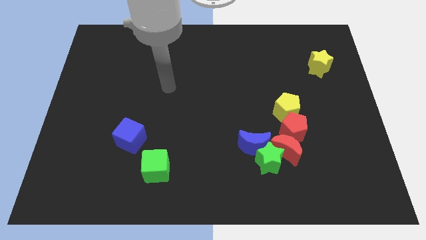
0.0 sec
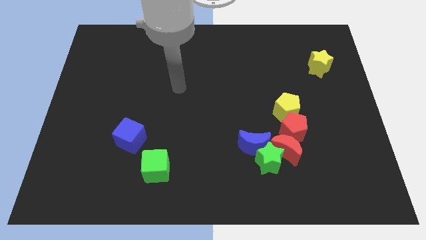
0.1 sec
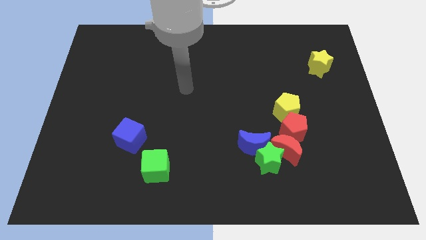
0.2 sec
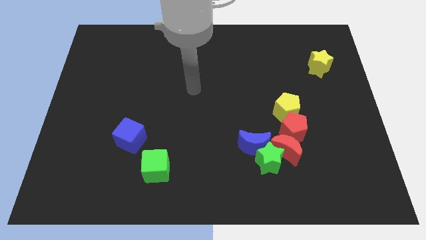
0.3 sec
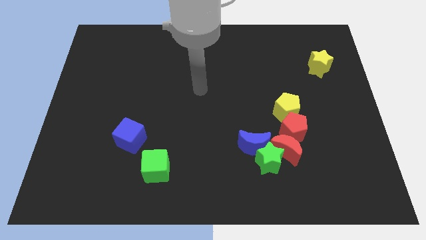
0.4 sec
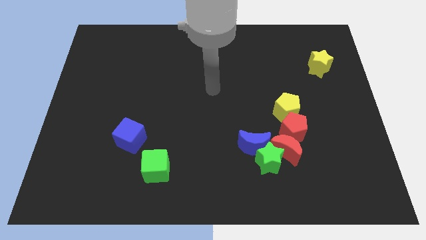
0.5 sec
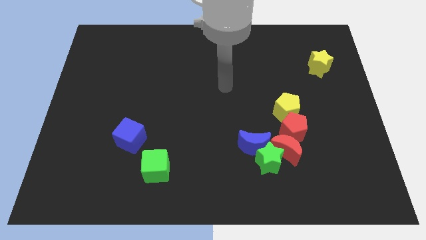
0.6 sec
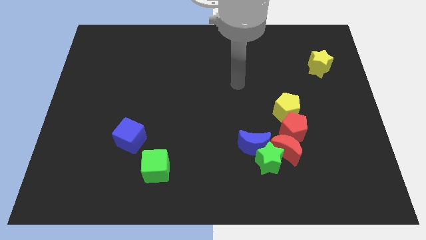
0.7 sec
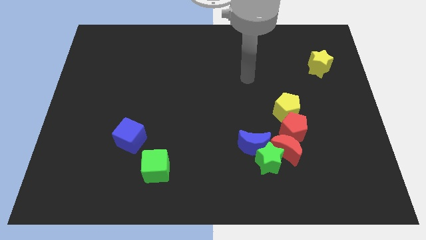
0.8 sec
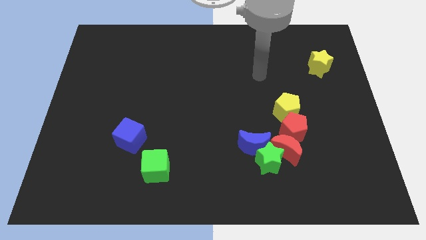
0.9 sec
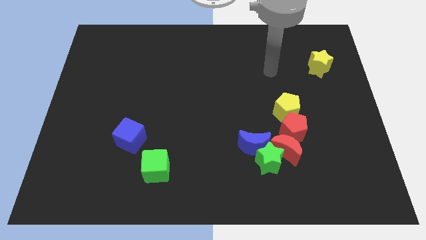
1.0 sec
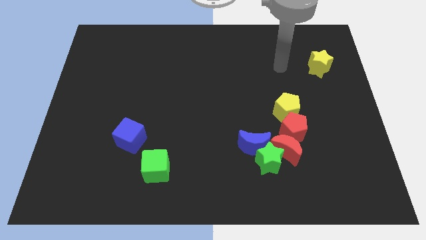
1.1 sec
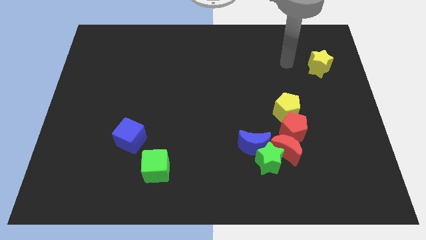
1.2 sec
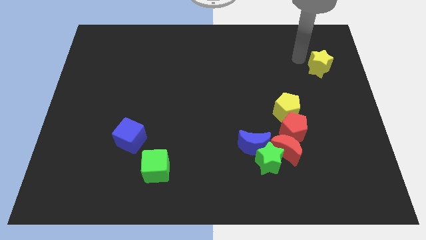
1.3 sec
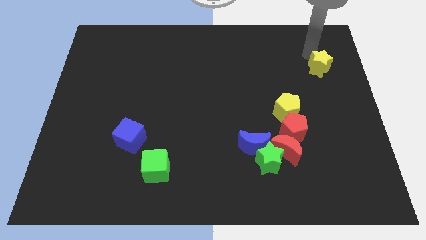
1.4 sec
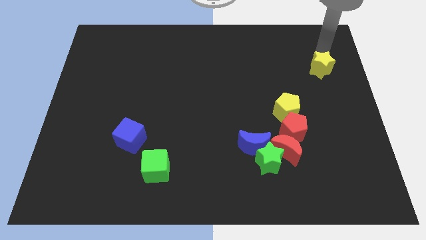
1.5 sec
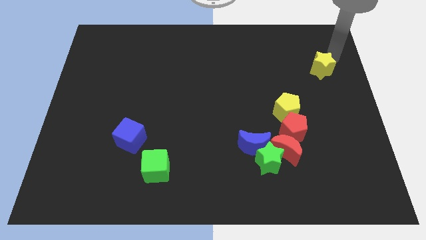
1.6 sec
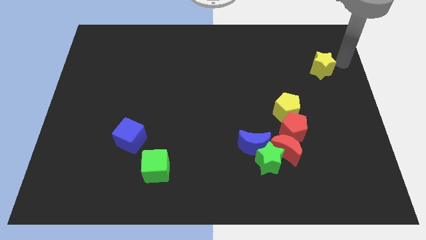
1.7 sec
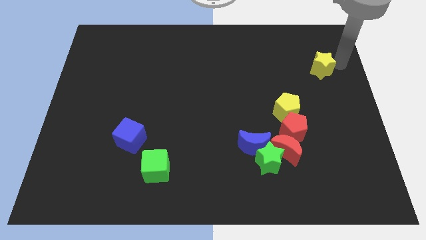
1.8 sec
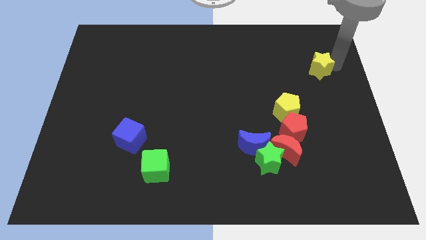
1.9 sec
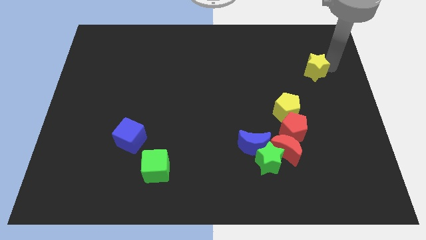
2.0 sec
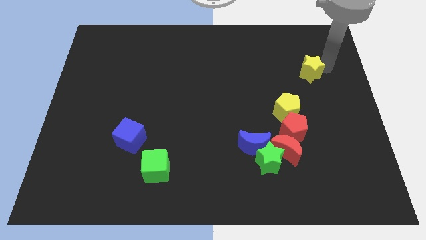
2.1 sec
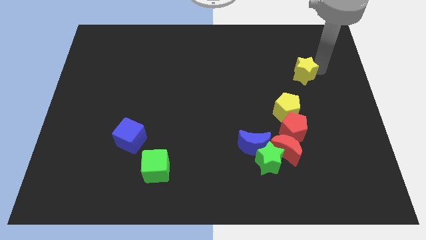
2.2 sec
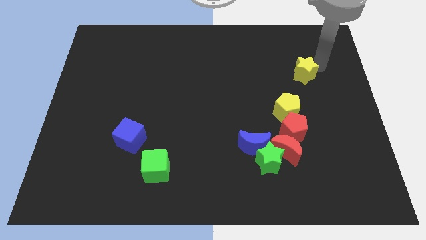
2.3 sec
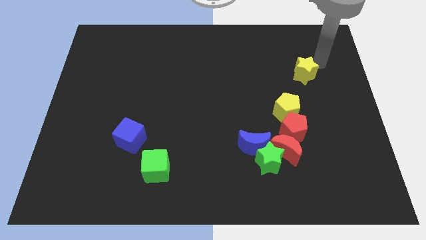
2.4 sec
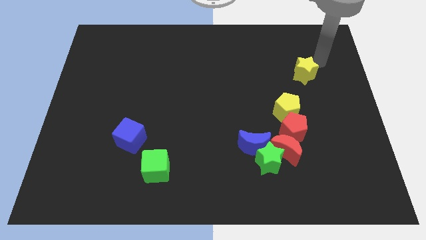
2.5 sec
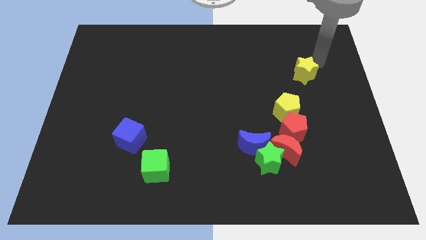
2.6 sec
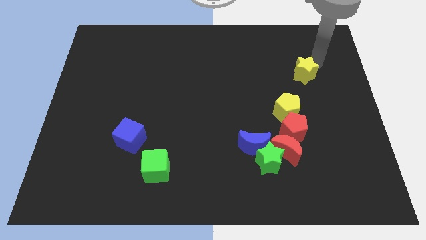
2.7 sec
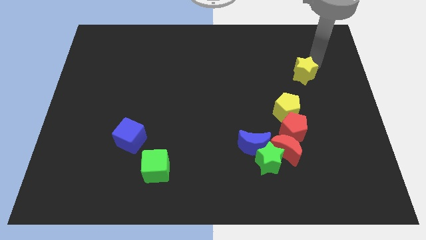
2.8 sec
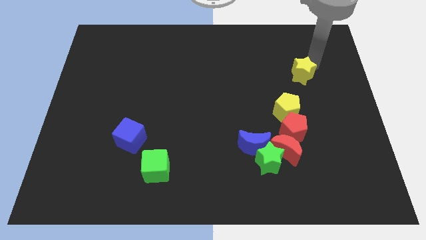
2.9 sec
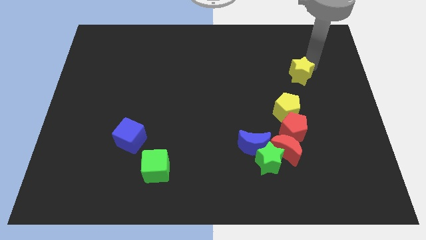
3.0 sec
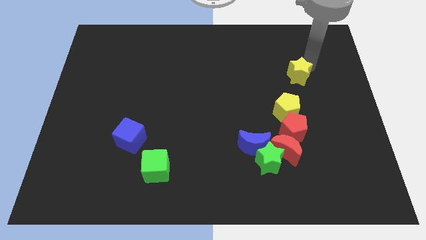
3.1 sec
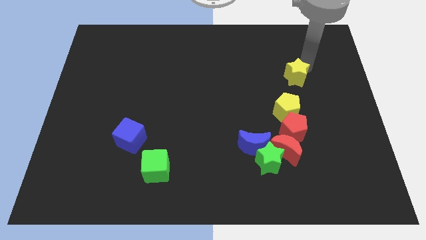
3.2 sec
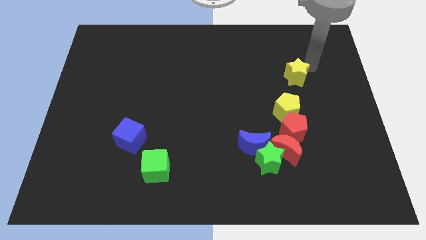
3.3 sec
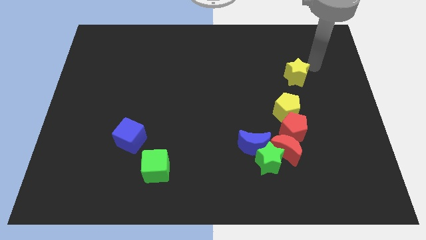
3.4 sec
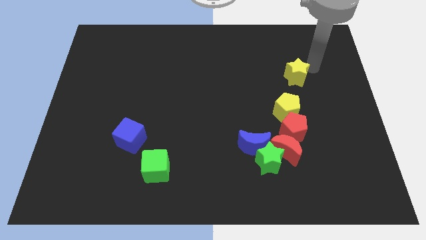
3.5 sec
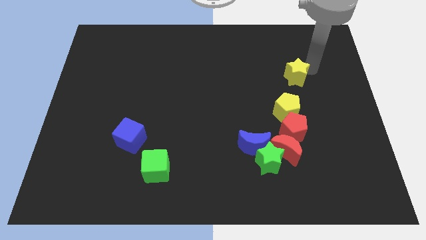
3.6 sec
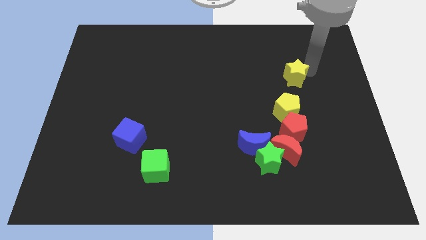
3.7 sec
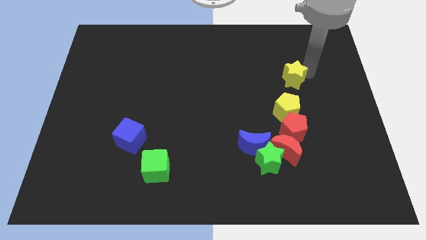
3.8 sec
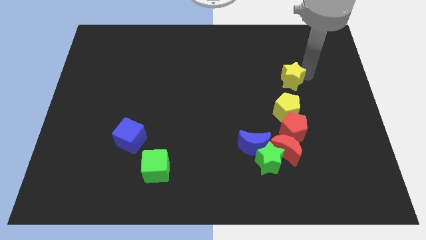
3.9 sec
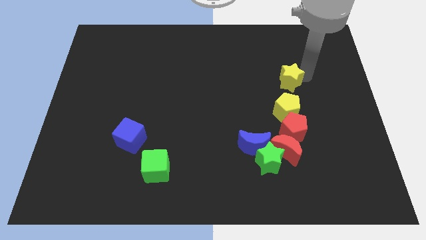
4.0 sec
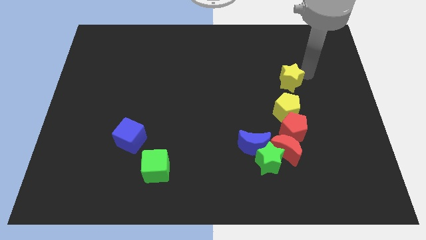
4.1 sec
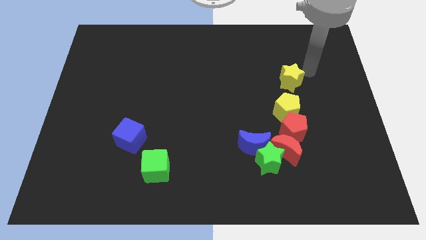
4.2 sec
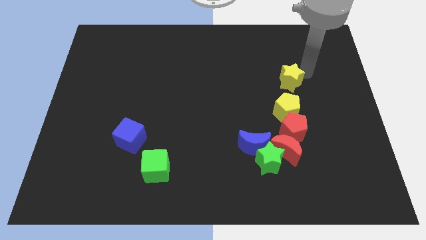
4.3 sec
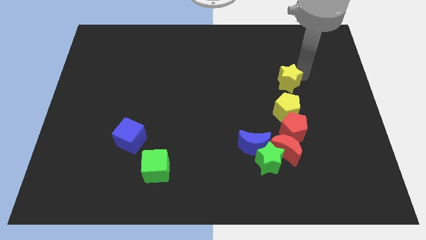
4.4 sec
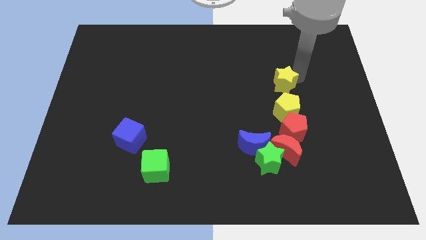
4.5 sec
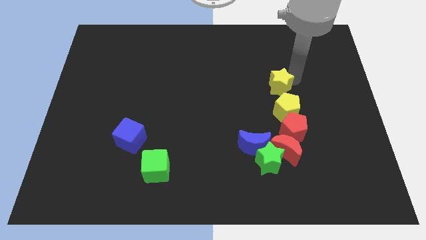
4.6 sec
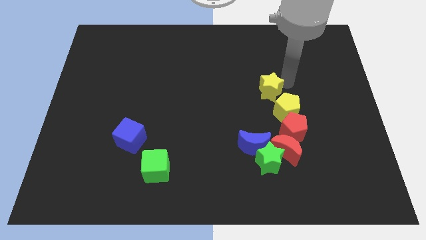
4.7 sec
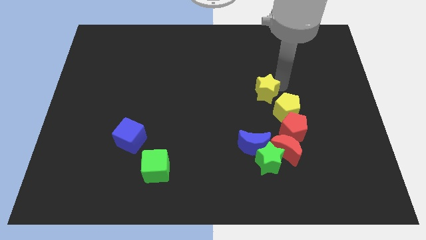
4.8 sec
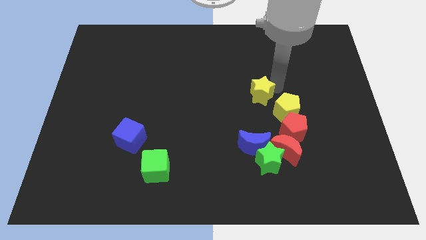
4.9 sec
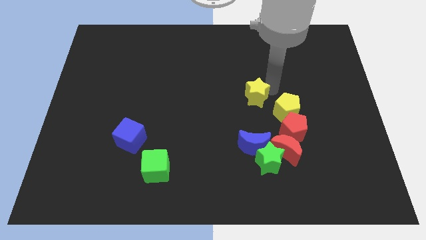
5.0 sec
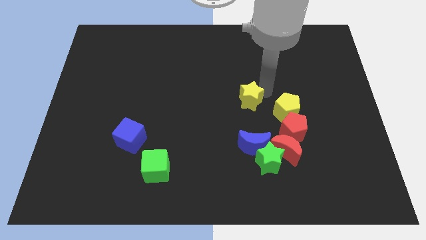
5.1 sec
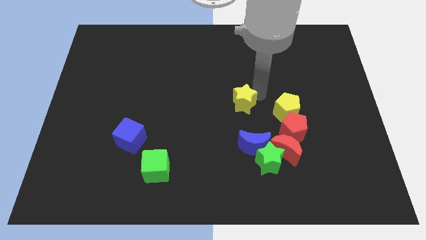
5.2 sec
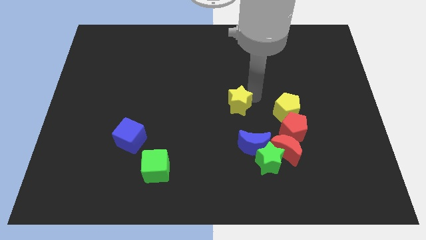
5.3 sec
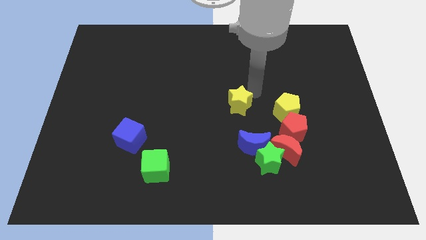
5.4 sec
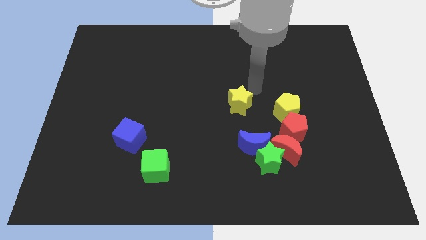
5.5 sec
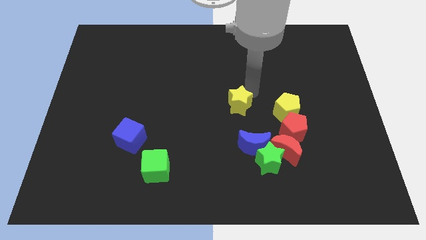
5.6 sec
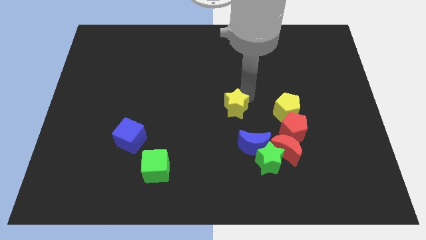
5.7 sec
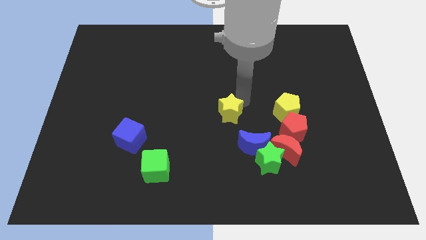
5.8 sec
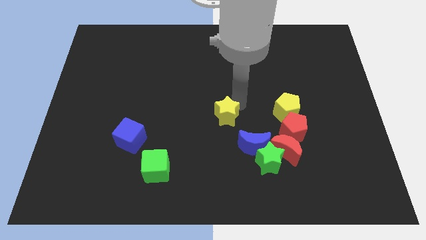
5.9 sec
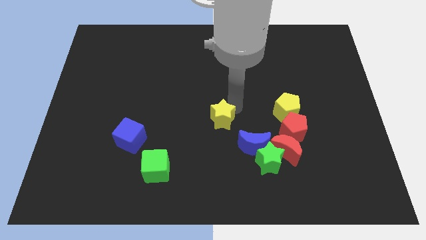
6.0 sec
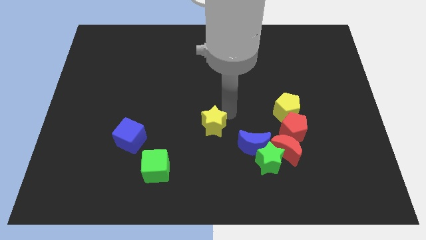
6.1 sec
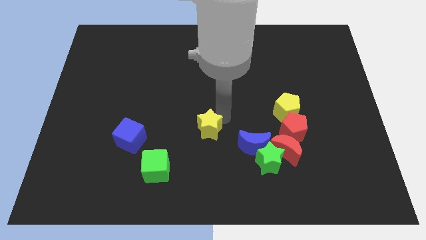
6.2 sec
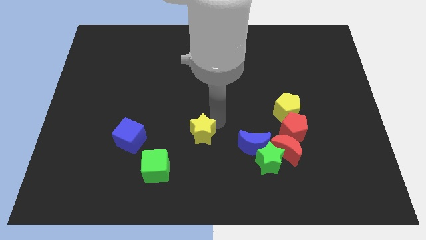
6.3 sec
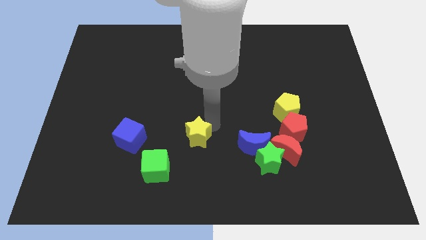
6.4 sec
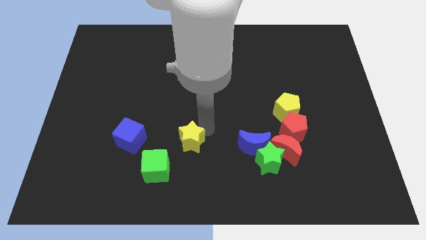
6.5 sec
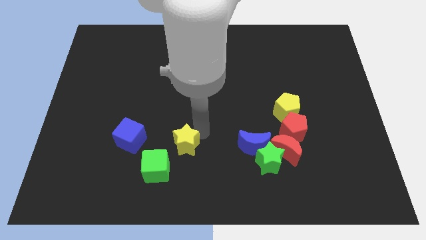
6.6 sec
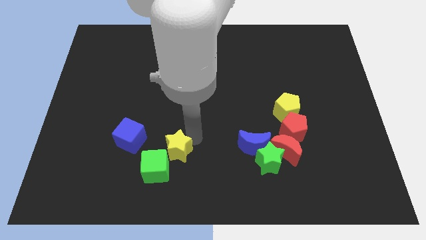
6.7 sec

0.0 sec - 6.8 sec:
put the yellow star to the green cube
